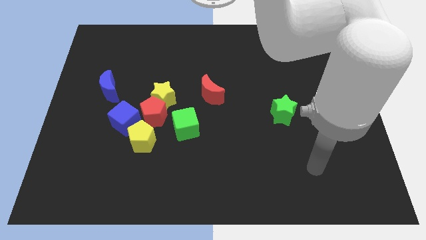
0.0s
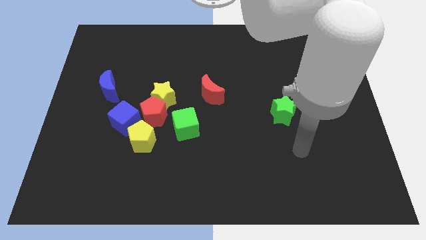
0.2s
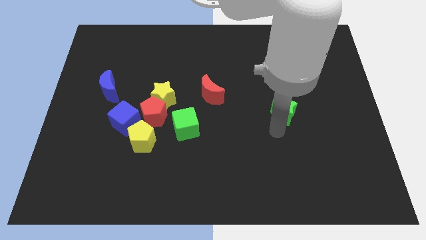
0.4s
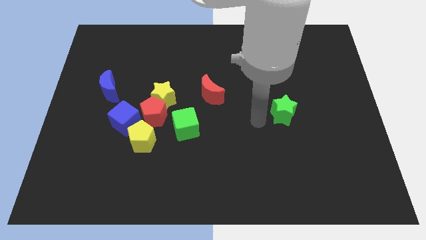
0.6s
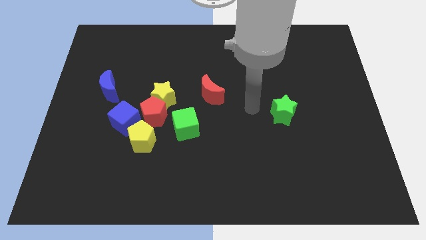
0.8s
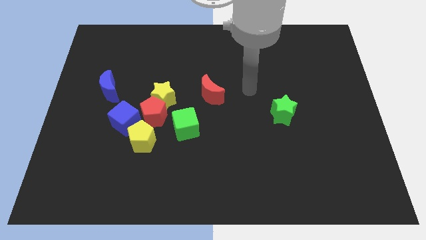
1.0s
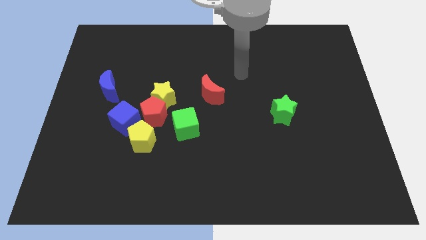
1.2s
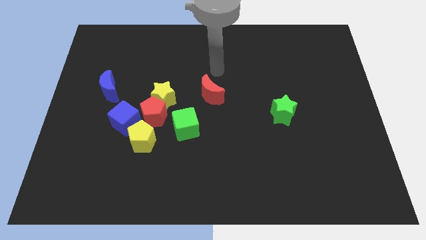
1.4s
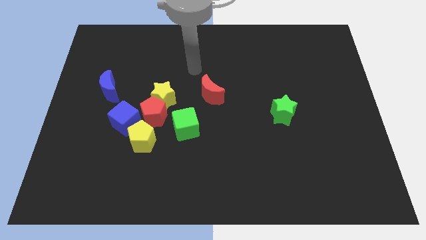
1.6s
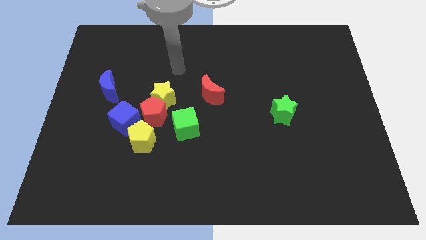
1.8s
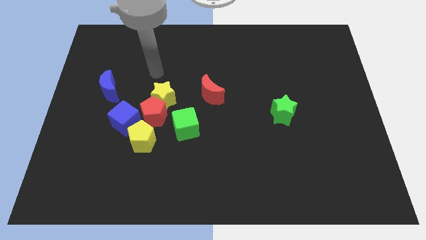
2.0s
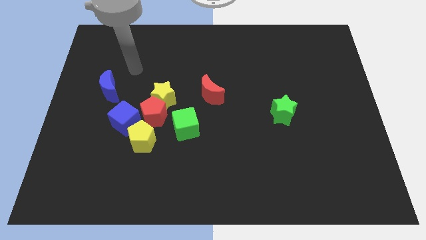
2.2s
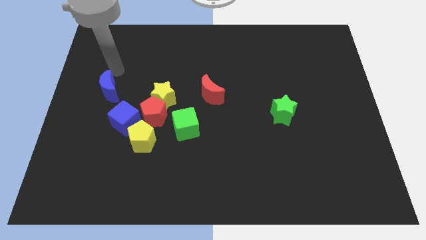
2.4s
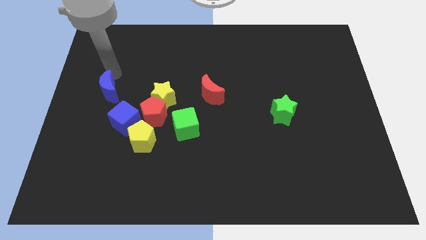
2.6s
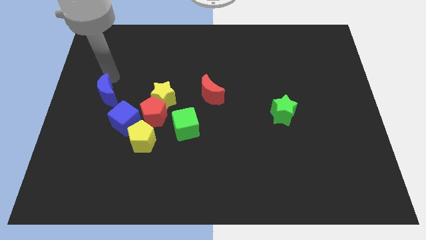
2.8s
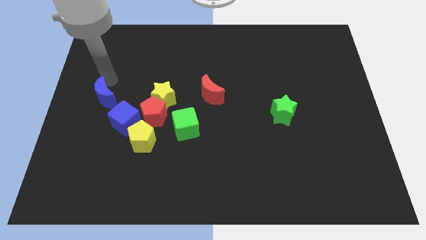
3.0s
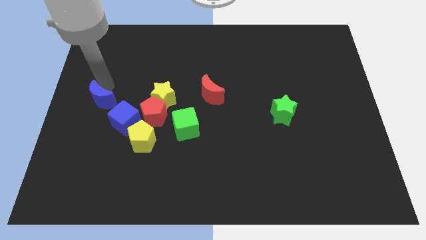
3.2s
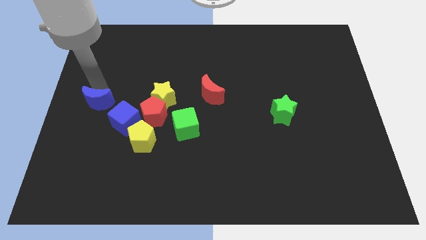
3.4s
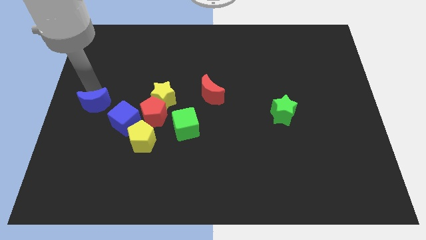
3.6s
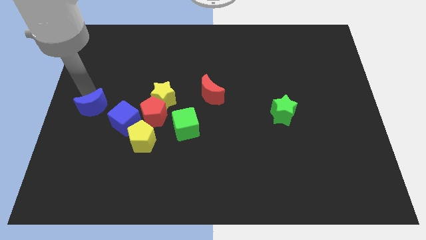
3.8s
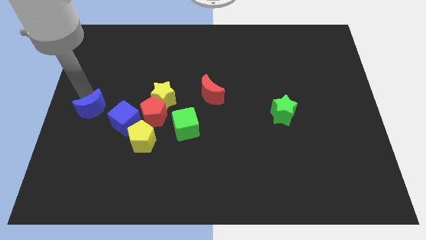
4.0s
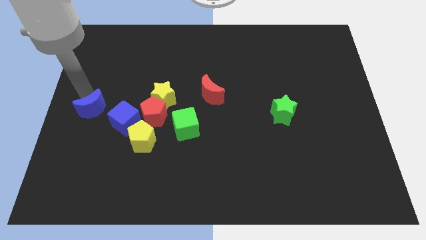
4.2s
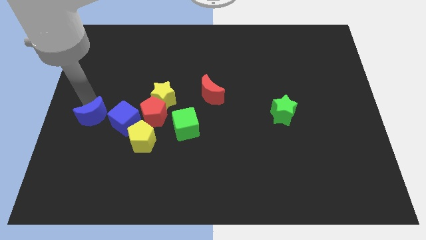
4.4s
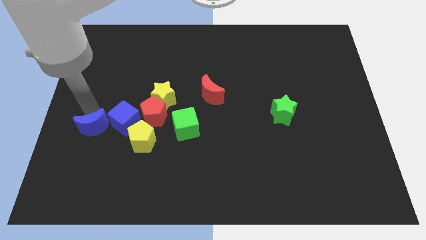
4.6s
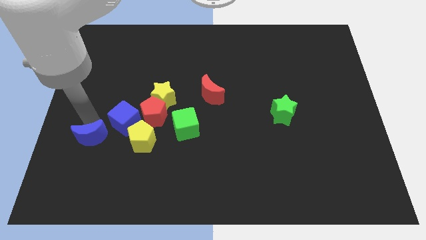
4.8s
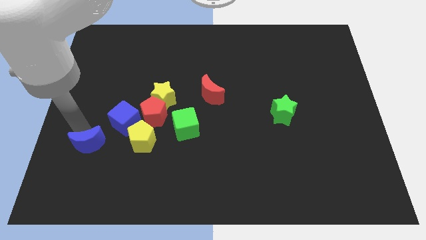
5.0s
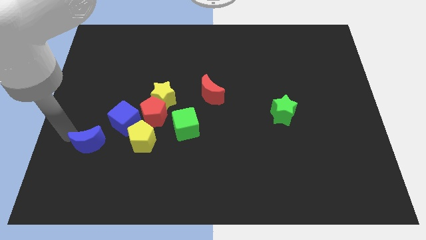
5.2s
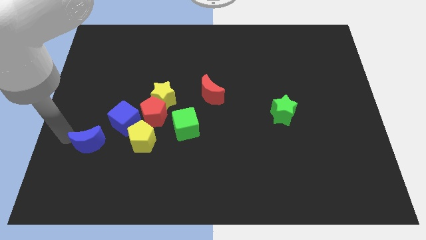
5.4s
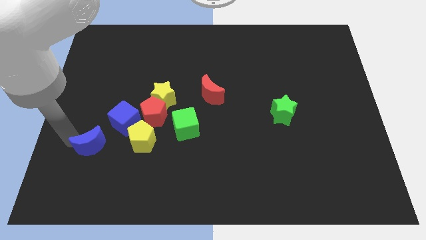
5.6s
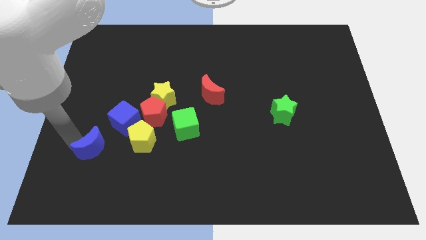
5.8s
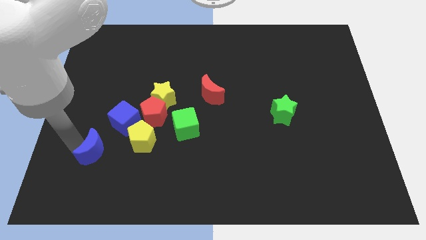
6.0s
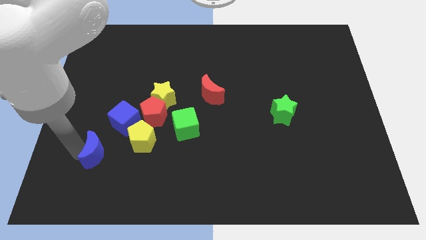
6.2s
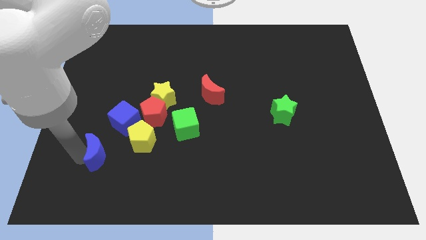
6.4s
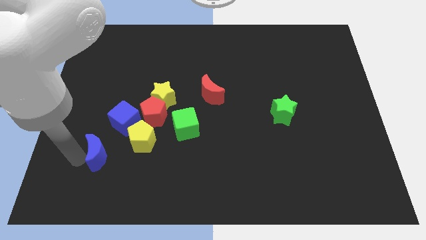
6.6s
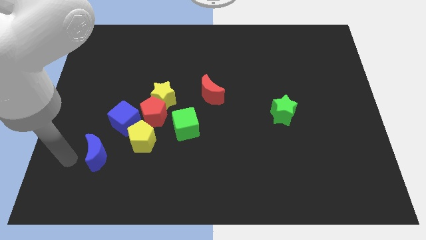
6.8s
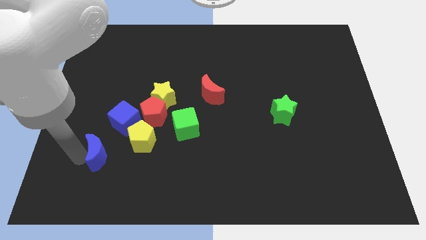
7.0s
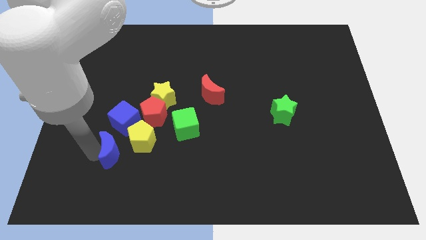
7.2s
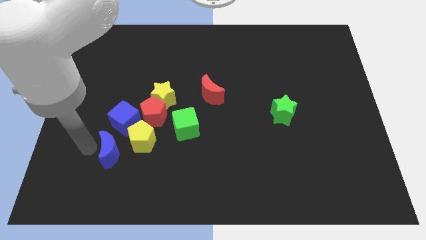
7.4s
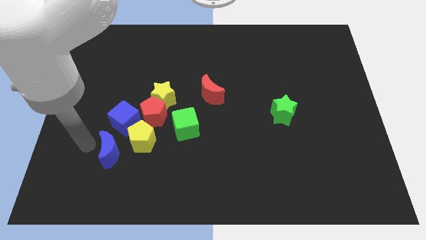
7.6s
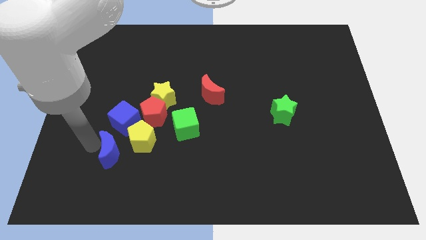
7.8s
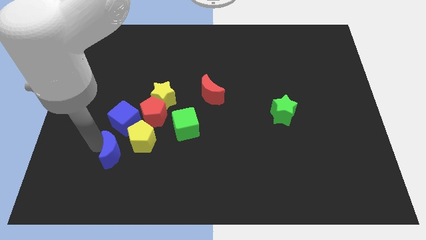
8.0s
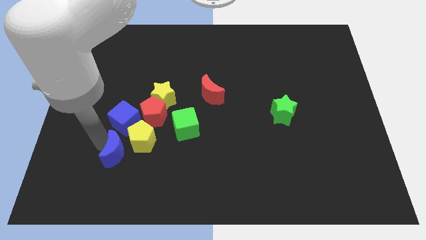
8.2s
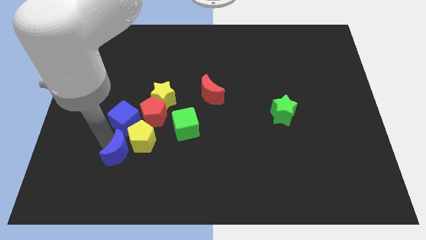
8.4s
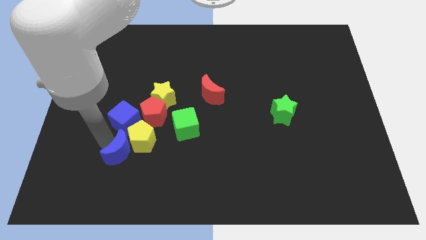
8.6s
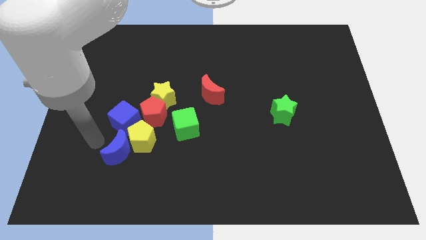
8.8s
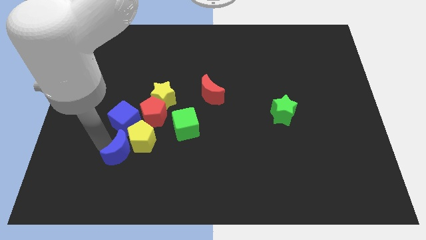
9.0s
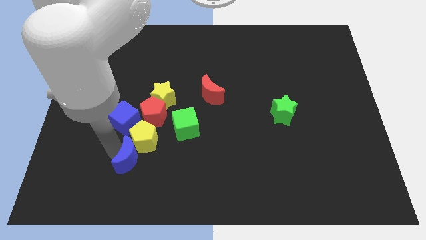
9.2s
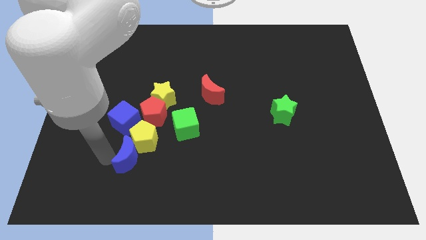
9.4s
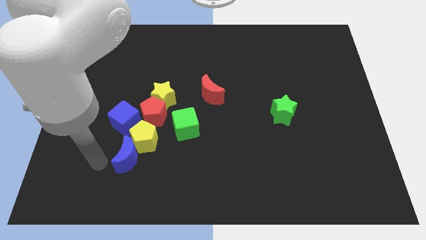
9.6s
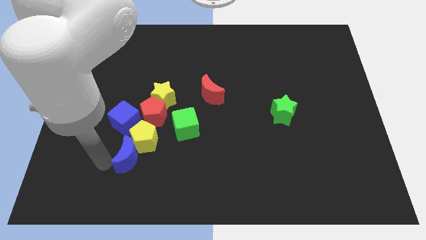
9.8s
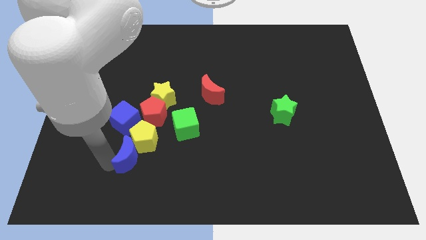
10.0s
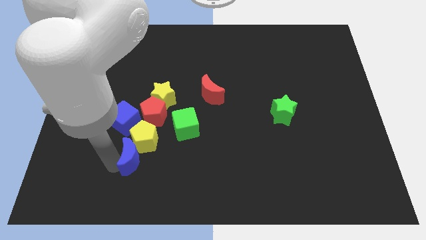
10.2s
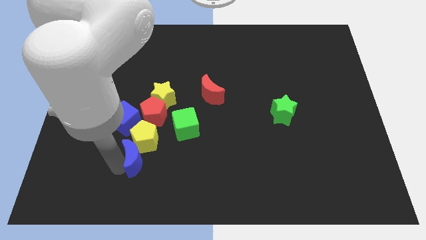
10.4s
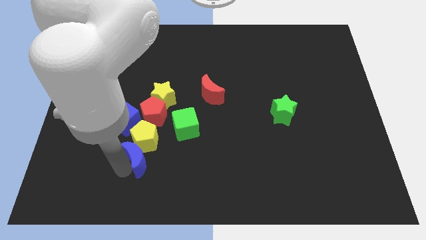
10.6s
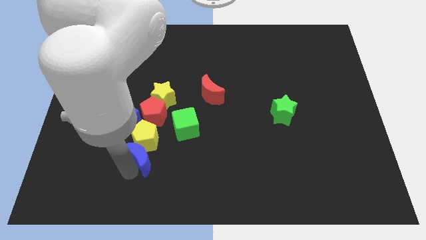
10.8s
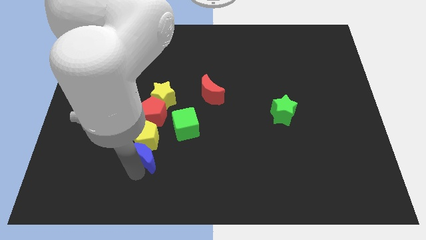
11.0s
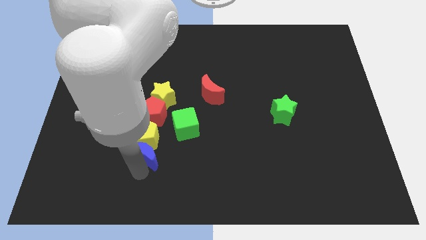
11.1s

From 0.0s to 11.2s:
slide the blue moon to the bottom side of the yellow star
